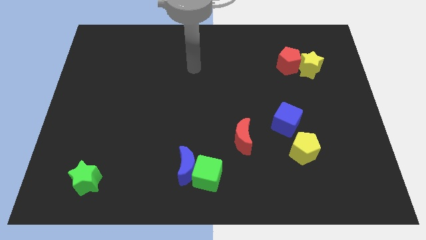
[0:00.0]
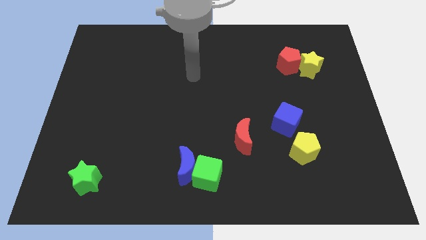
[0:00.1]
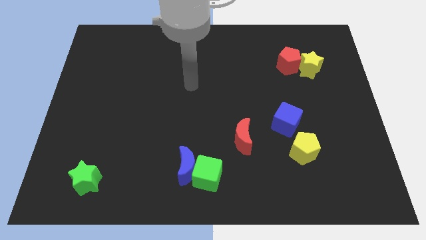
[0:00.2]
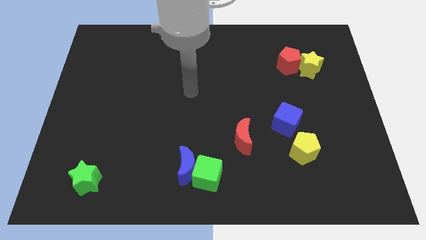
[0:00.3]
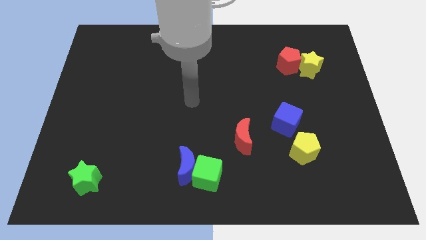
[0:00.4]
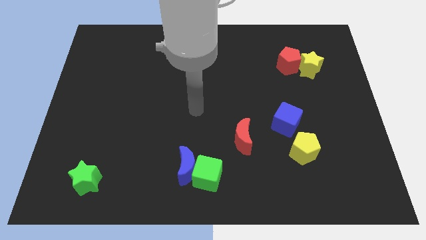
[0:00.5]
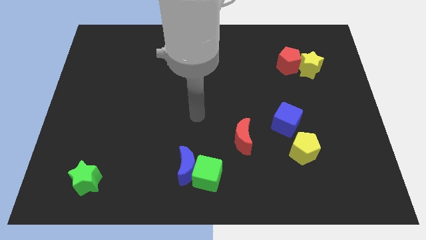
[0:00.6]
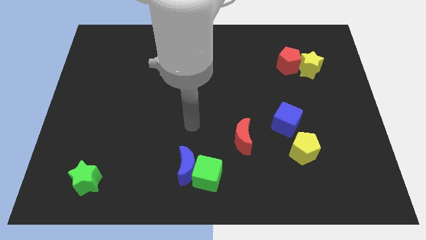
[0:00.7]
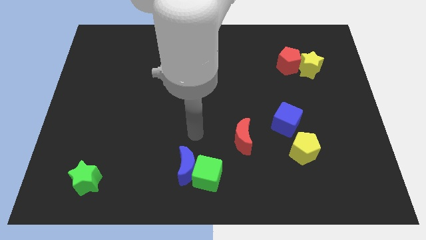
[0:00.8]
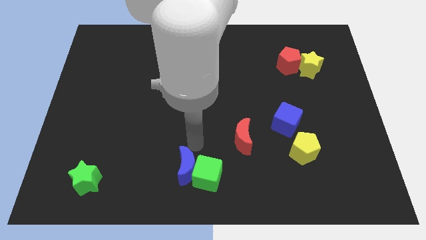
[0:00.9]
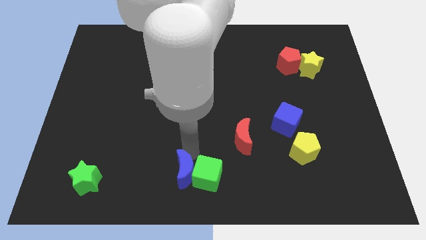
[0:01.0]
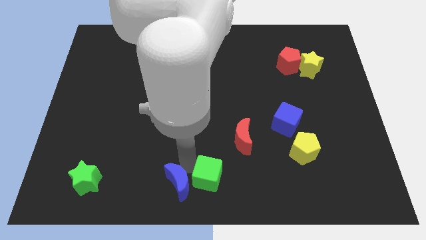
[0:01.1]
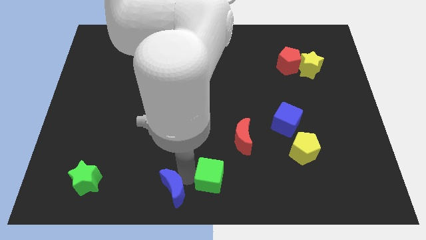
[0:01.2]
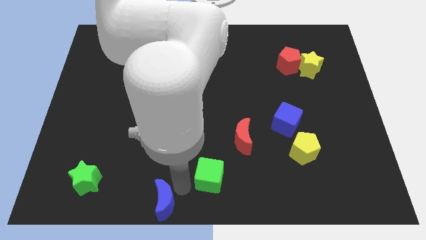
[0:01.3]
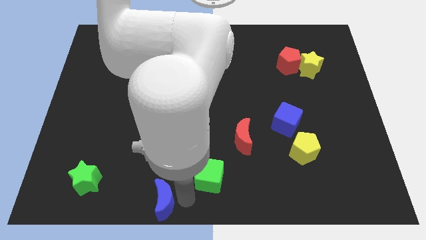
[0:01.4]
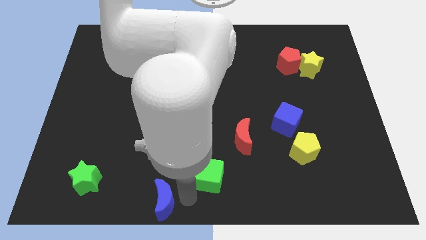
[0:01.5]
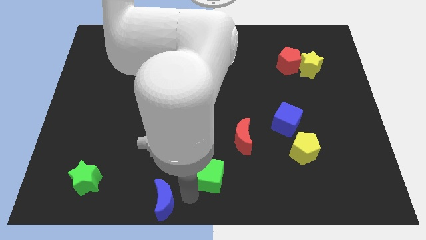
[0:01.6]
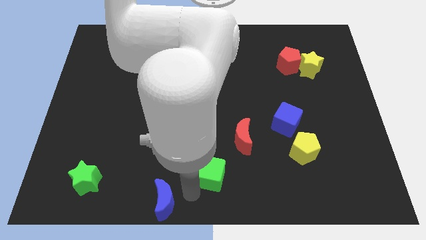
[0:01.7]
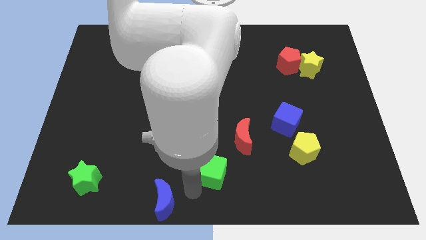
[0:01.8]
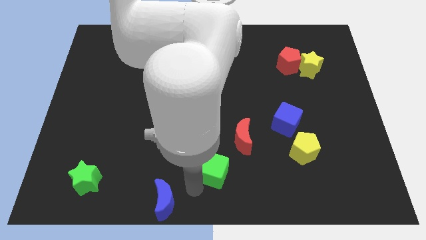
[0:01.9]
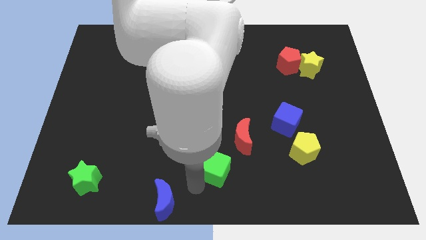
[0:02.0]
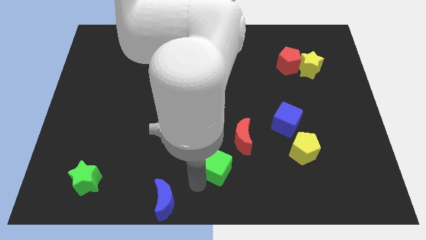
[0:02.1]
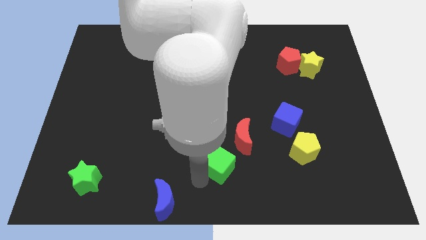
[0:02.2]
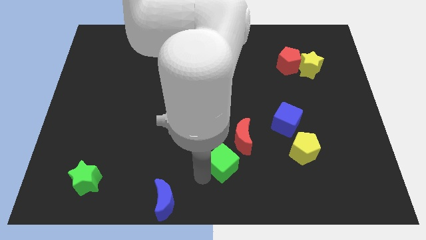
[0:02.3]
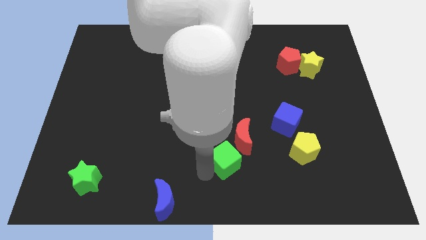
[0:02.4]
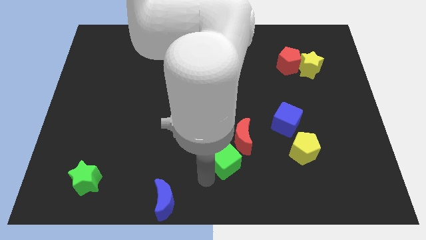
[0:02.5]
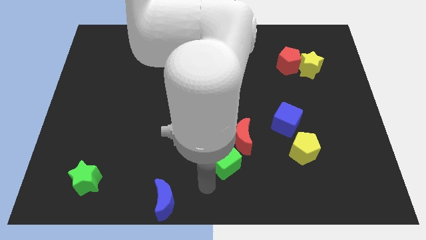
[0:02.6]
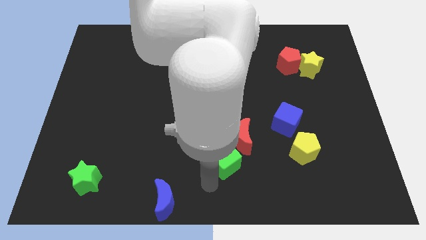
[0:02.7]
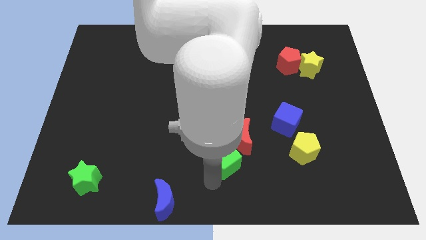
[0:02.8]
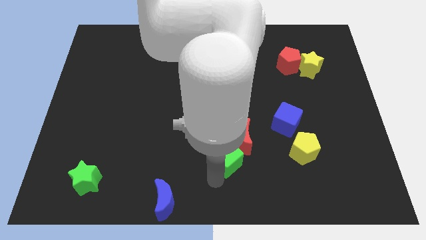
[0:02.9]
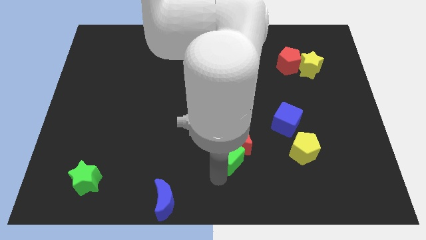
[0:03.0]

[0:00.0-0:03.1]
slide the green cube next to the red moon

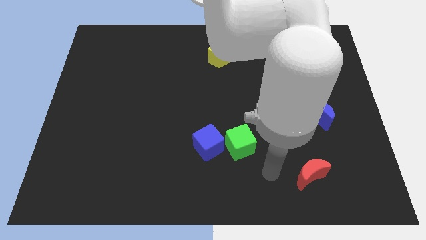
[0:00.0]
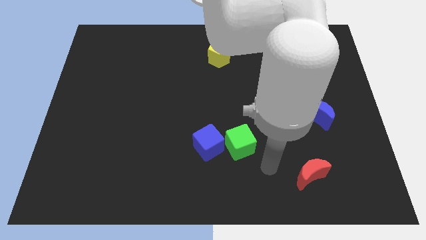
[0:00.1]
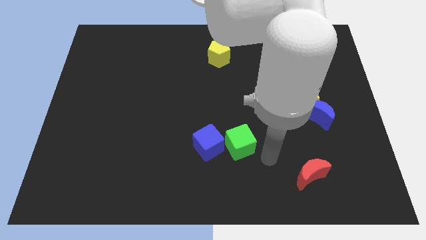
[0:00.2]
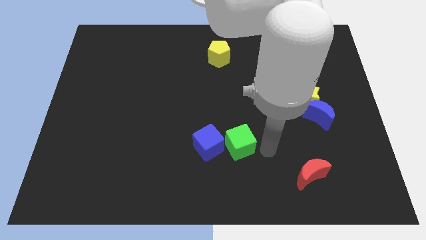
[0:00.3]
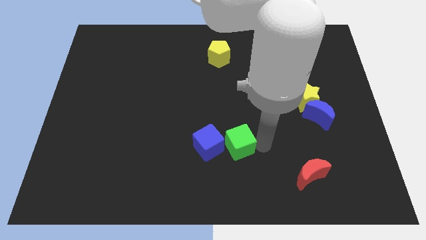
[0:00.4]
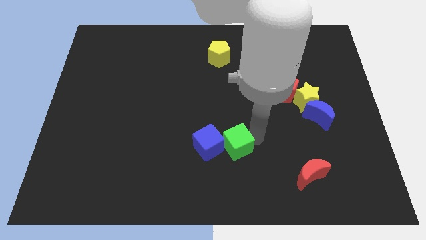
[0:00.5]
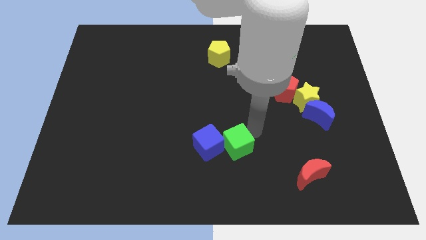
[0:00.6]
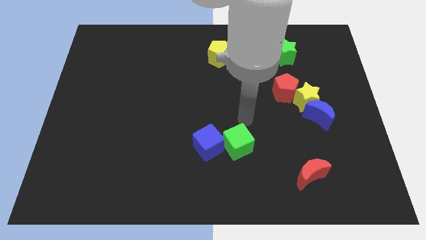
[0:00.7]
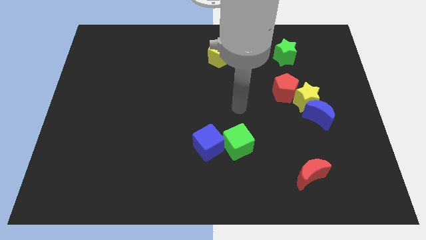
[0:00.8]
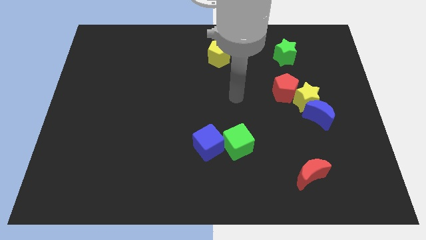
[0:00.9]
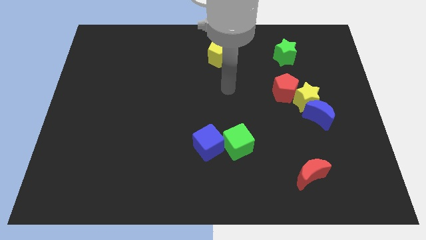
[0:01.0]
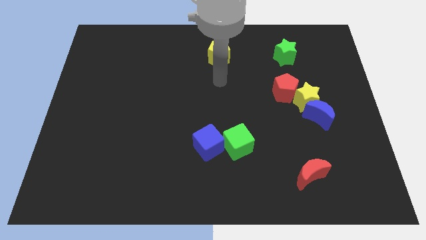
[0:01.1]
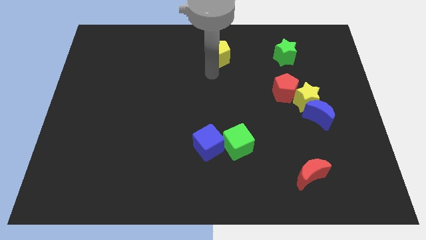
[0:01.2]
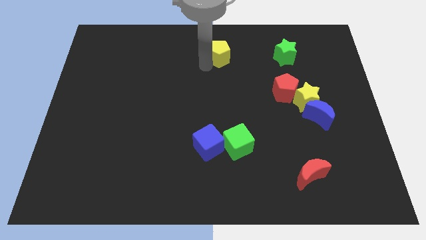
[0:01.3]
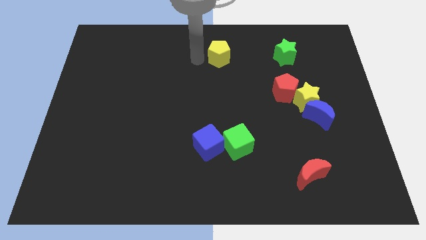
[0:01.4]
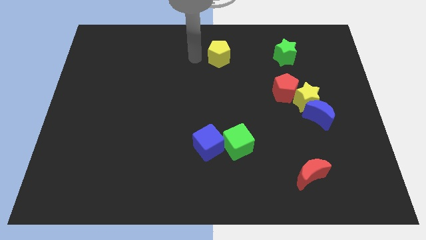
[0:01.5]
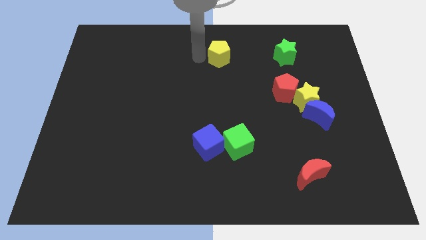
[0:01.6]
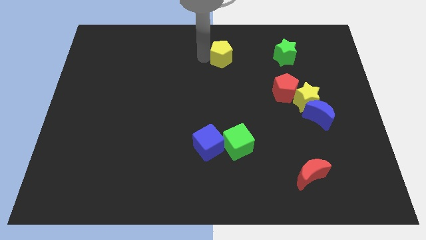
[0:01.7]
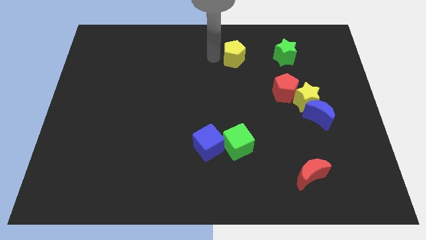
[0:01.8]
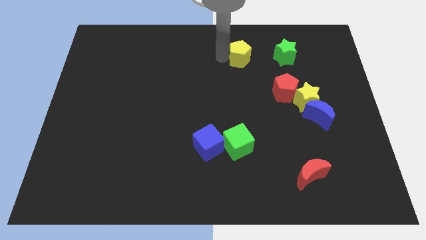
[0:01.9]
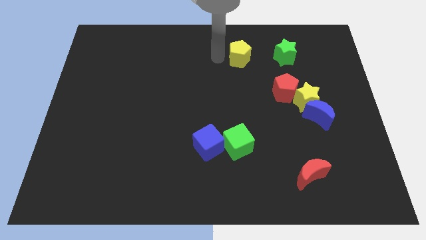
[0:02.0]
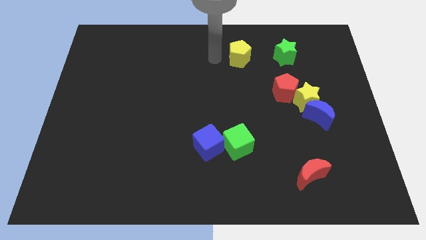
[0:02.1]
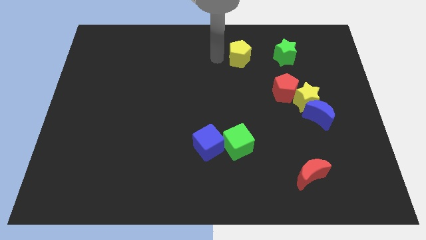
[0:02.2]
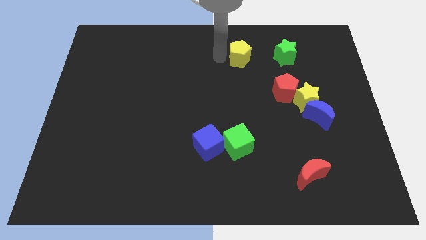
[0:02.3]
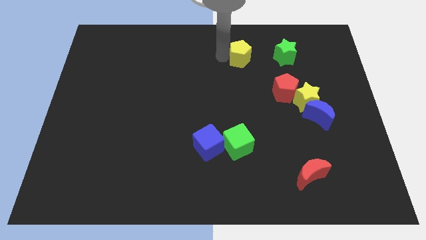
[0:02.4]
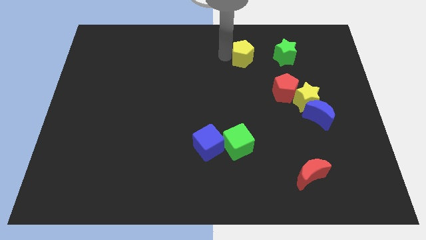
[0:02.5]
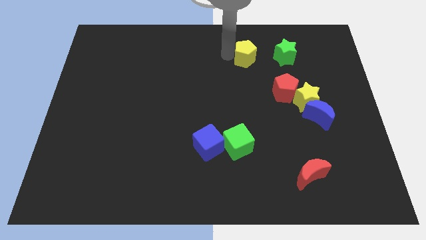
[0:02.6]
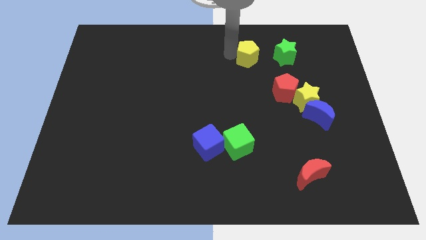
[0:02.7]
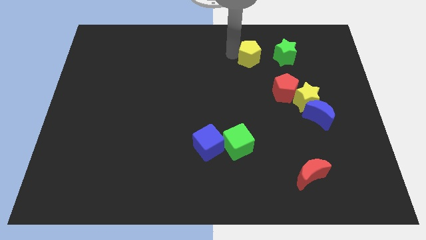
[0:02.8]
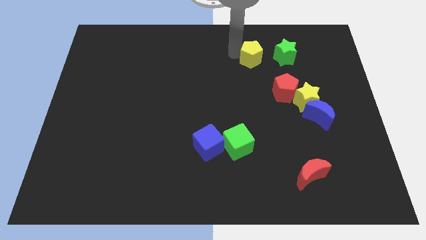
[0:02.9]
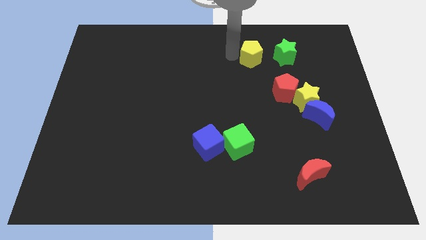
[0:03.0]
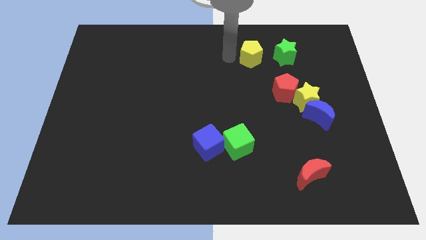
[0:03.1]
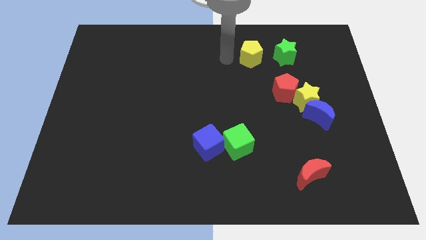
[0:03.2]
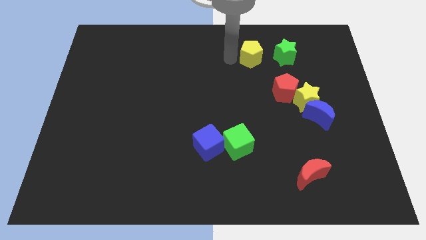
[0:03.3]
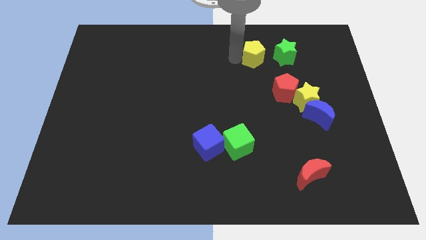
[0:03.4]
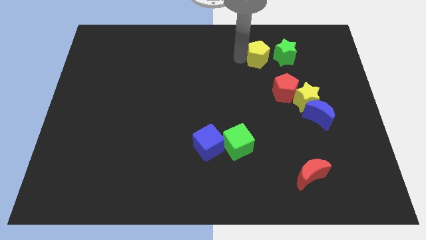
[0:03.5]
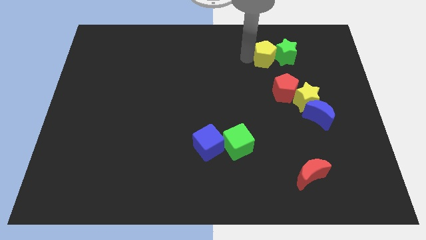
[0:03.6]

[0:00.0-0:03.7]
slide the yellow pentagon next to the green star

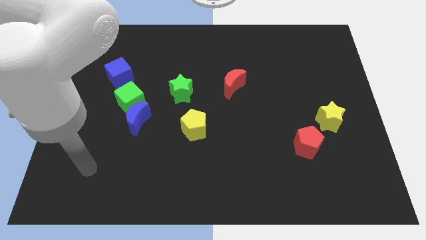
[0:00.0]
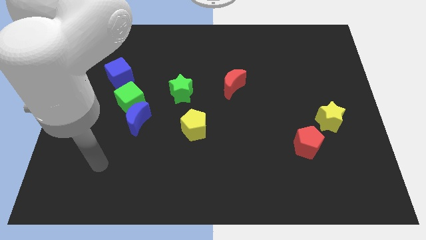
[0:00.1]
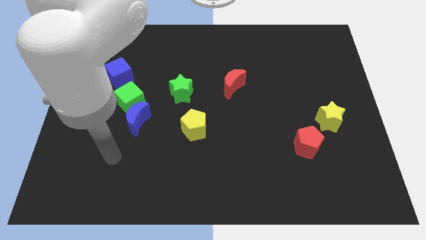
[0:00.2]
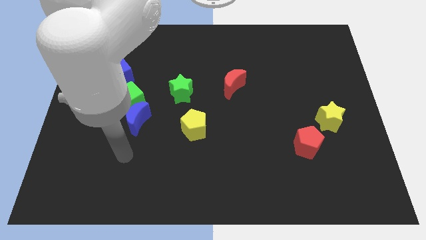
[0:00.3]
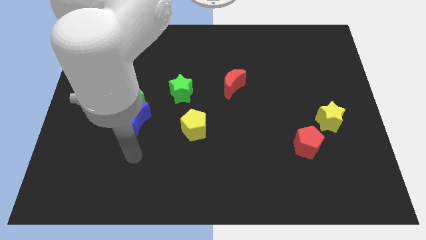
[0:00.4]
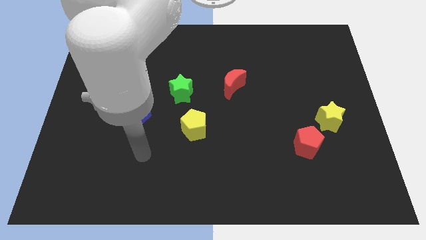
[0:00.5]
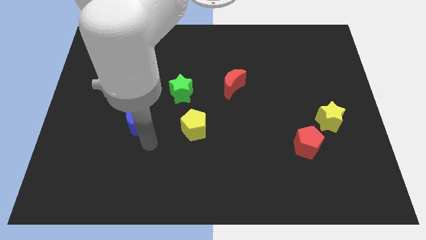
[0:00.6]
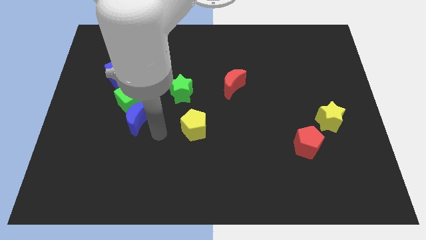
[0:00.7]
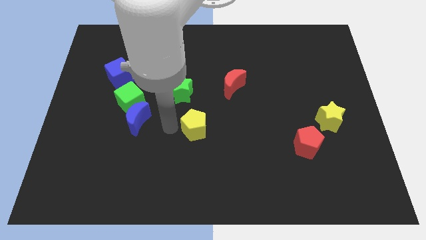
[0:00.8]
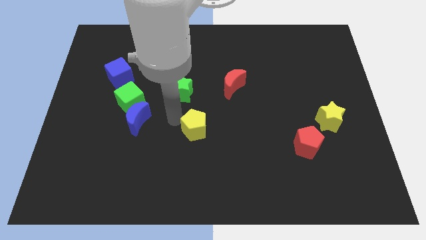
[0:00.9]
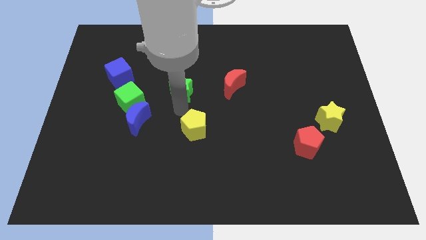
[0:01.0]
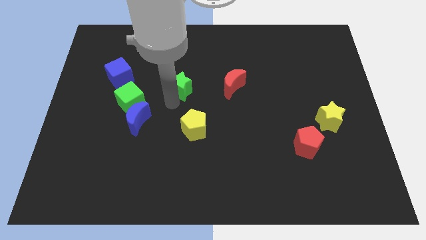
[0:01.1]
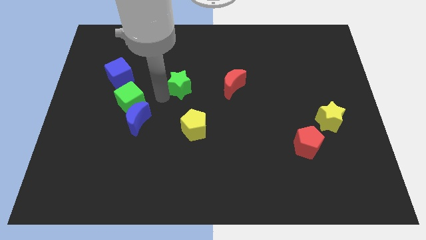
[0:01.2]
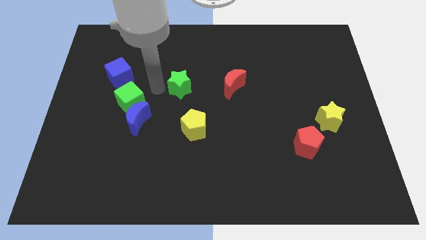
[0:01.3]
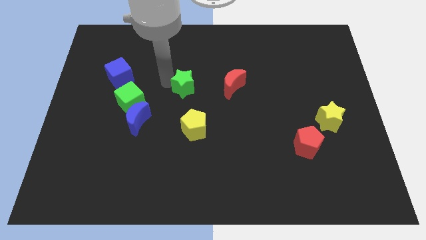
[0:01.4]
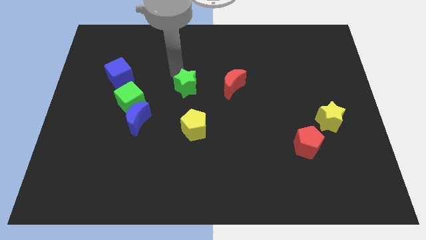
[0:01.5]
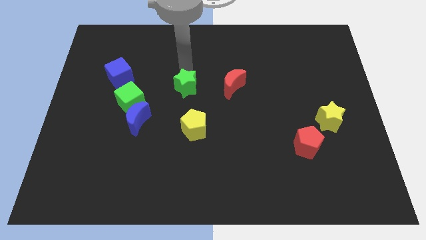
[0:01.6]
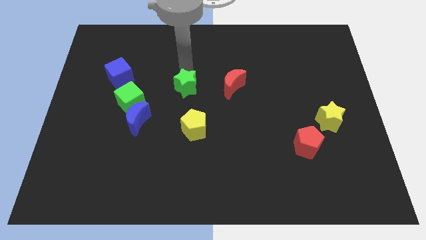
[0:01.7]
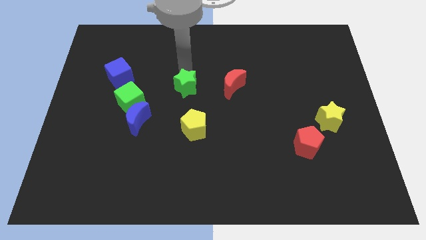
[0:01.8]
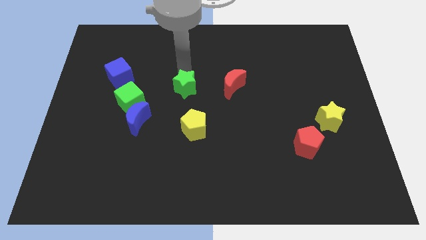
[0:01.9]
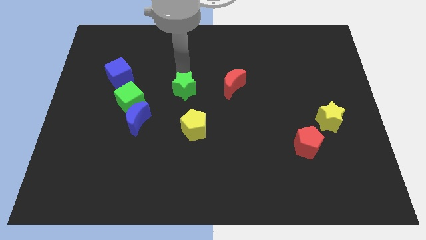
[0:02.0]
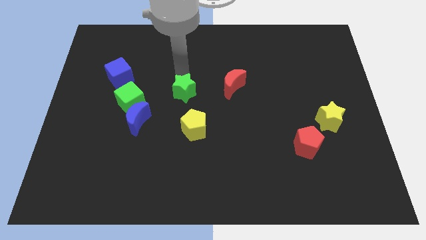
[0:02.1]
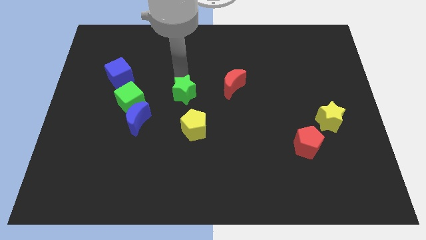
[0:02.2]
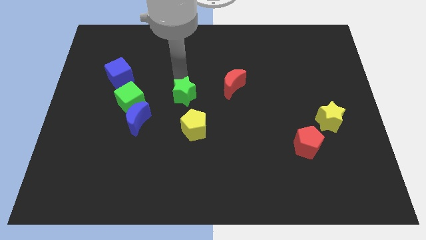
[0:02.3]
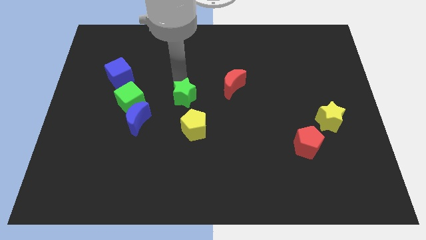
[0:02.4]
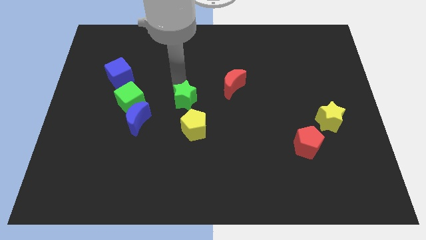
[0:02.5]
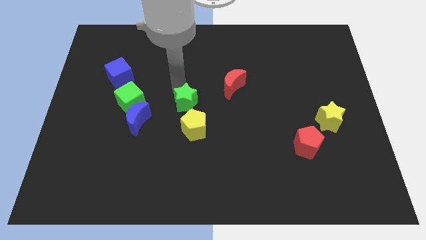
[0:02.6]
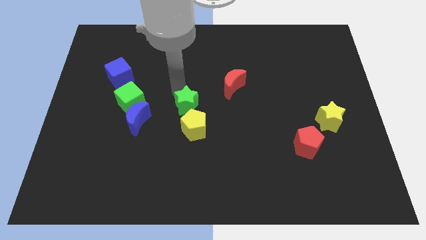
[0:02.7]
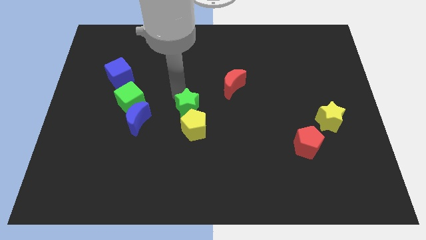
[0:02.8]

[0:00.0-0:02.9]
put the green star towards the yellow pentagon
